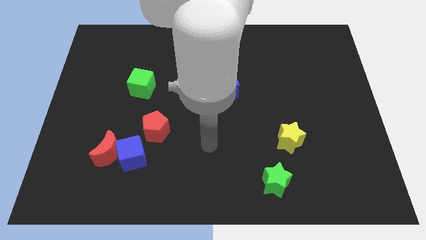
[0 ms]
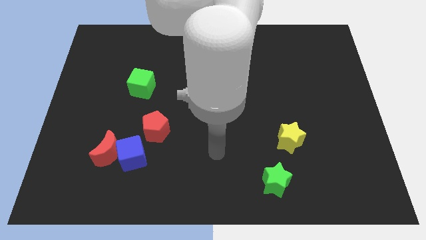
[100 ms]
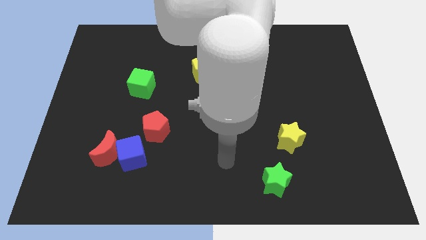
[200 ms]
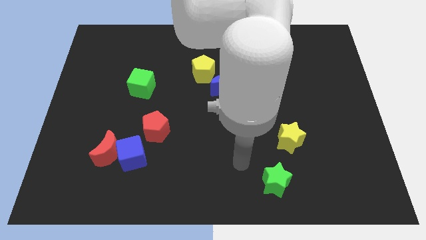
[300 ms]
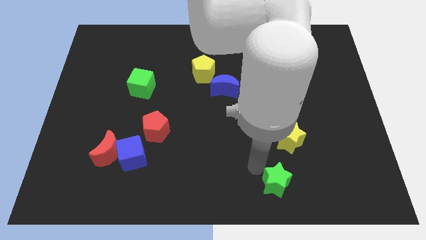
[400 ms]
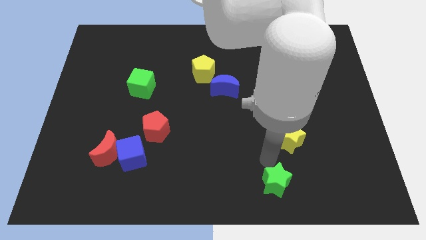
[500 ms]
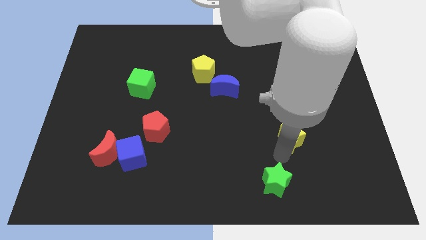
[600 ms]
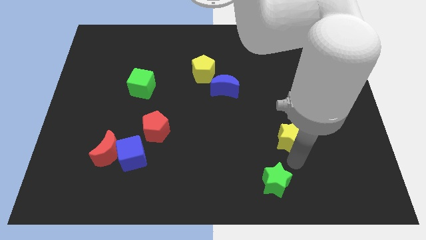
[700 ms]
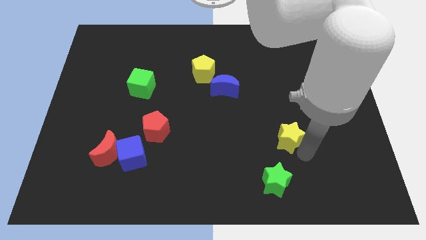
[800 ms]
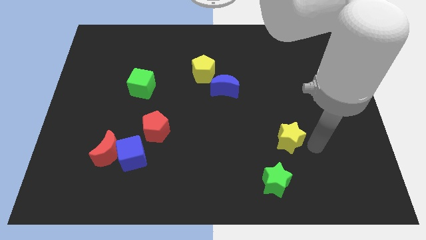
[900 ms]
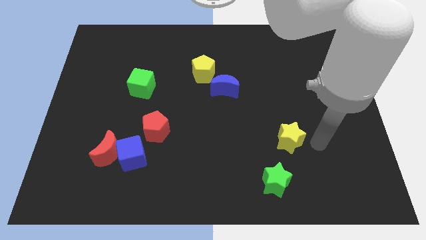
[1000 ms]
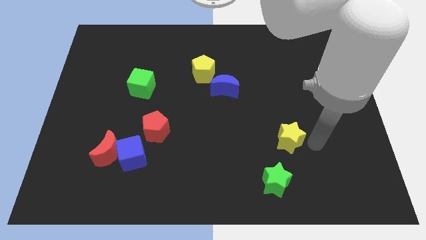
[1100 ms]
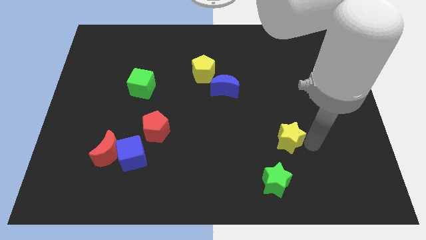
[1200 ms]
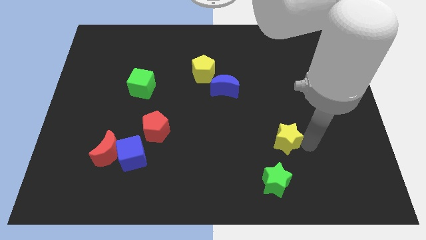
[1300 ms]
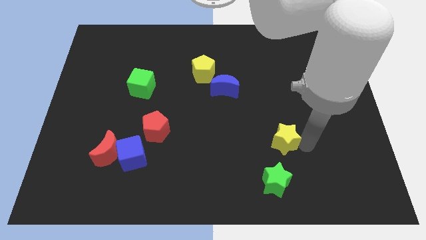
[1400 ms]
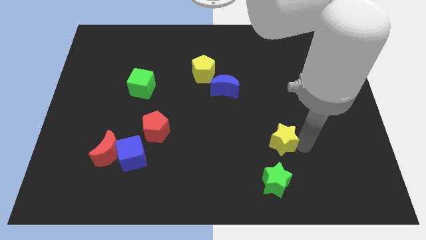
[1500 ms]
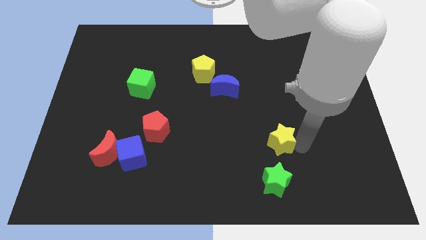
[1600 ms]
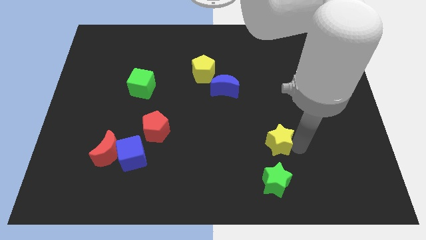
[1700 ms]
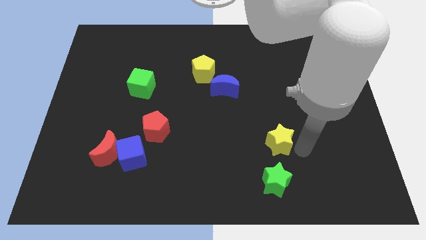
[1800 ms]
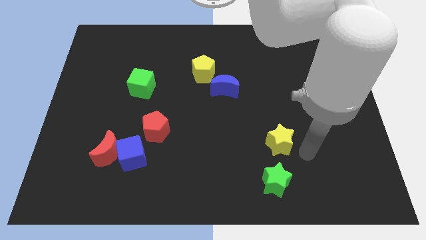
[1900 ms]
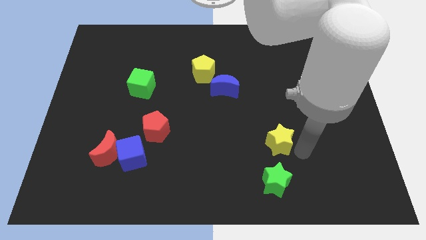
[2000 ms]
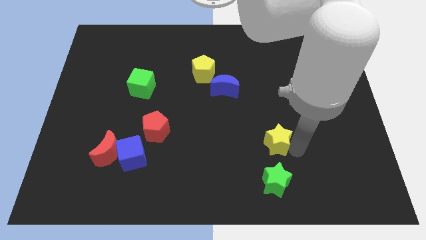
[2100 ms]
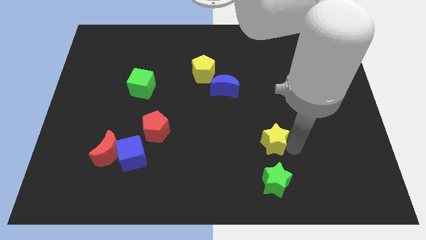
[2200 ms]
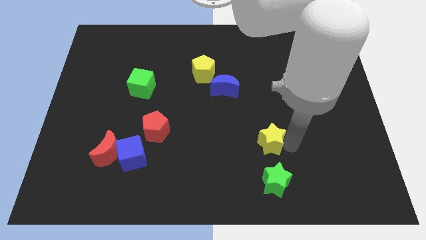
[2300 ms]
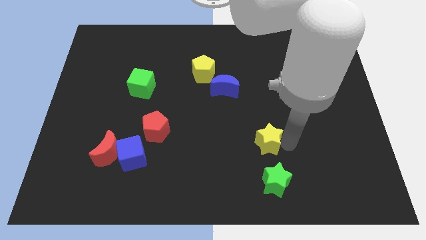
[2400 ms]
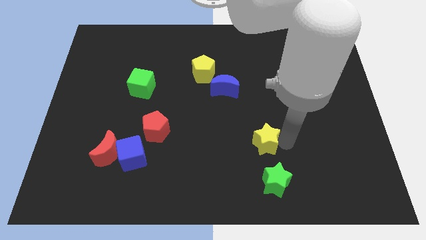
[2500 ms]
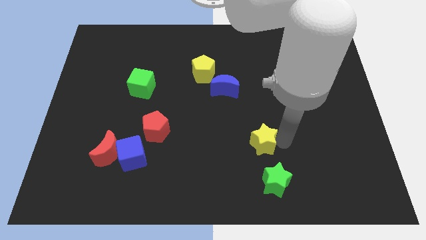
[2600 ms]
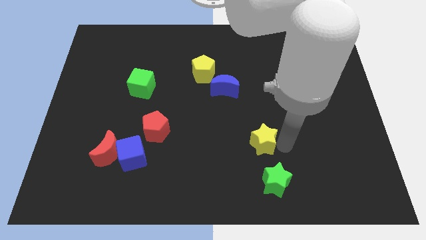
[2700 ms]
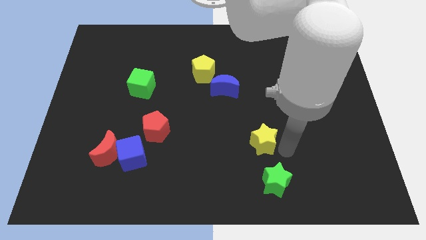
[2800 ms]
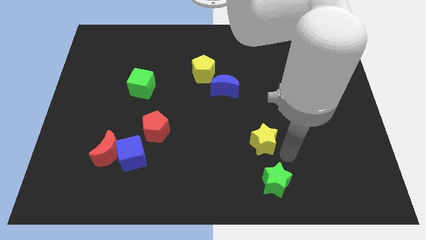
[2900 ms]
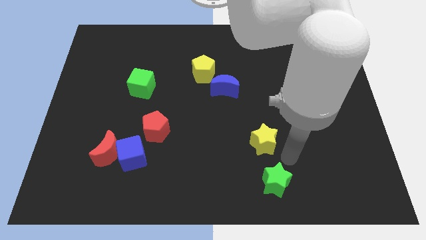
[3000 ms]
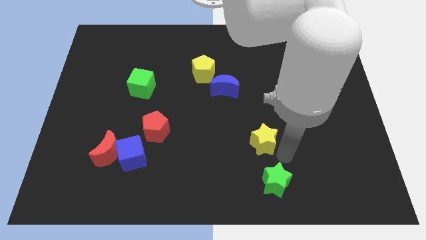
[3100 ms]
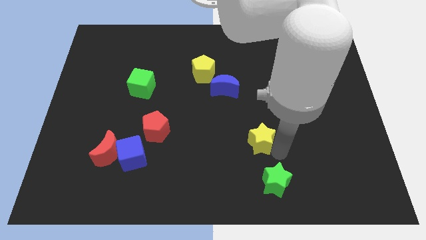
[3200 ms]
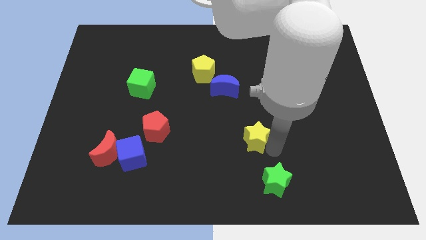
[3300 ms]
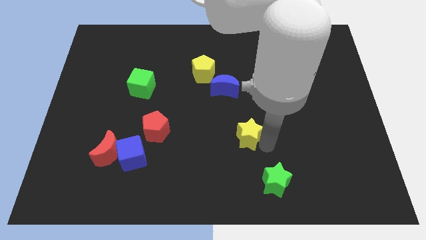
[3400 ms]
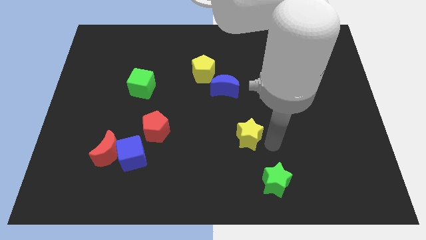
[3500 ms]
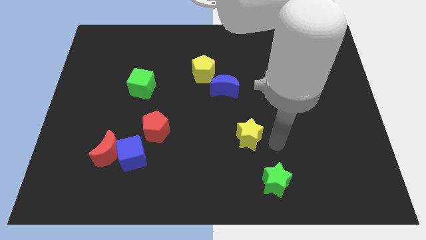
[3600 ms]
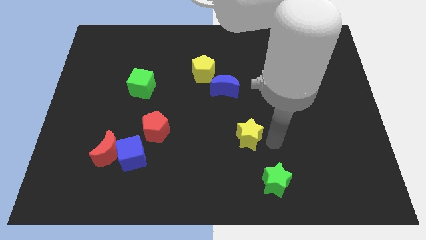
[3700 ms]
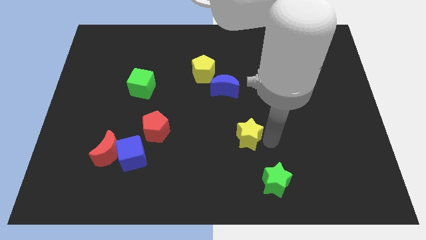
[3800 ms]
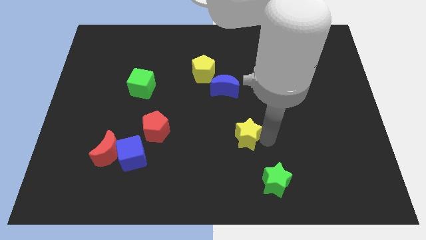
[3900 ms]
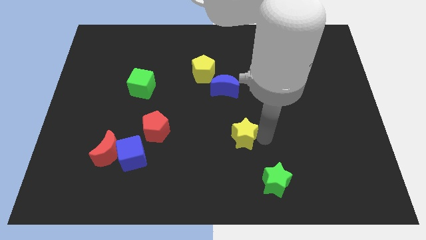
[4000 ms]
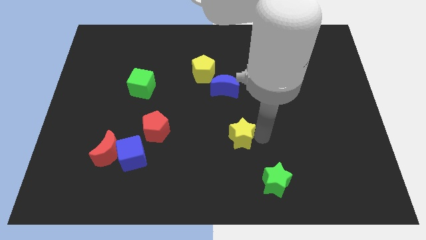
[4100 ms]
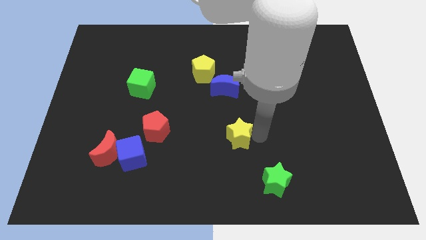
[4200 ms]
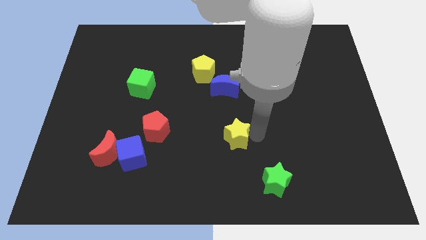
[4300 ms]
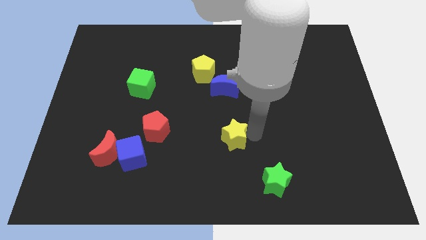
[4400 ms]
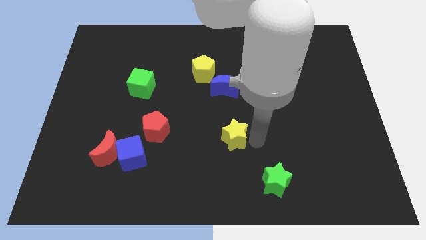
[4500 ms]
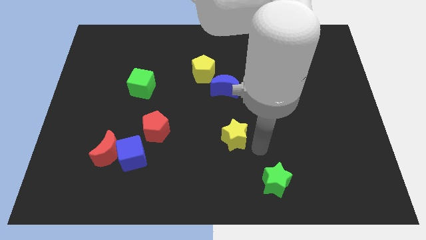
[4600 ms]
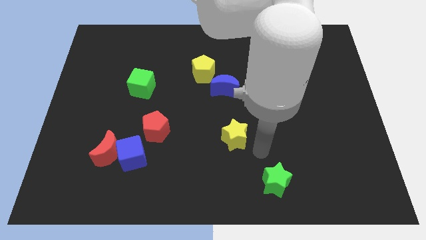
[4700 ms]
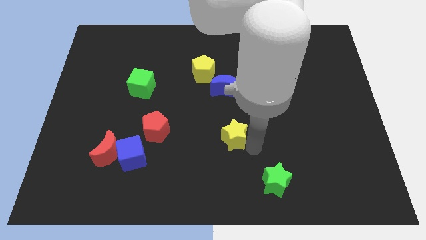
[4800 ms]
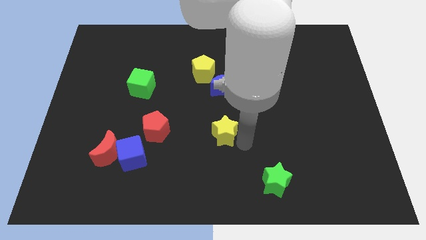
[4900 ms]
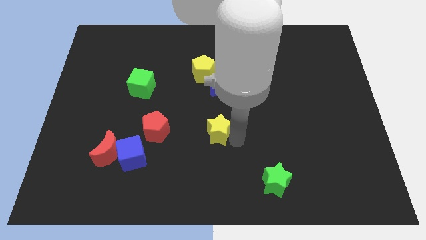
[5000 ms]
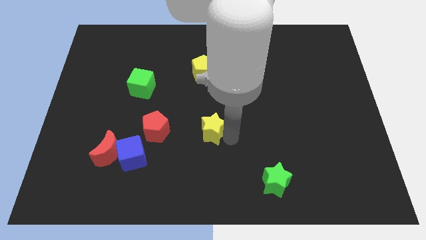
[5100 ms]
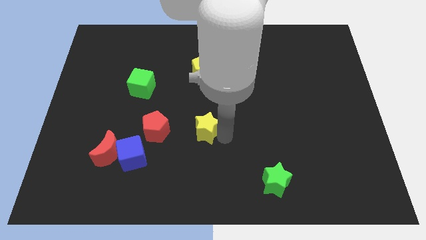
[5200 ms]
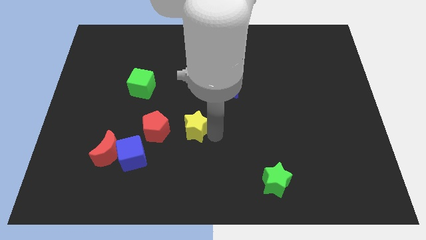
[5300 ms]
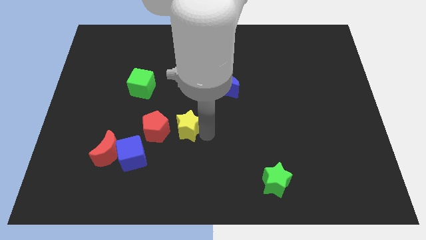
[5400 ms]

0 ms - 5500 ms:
push the yellow star to the top right side of the red pentagon

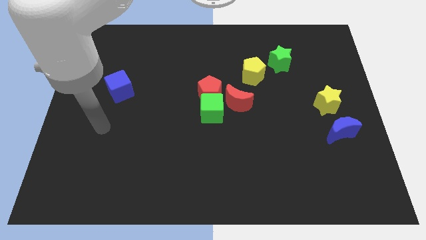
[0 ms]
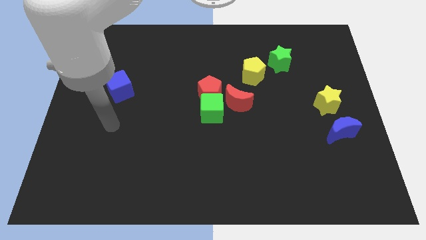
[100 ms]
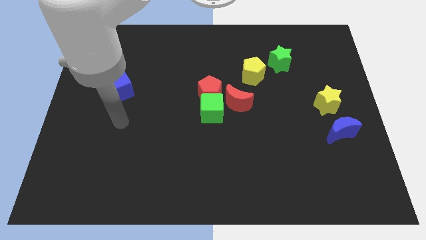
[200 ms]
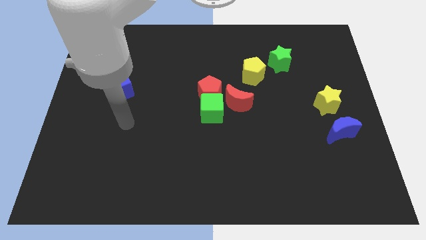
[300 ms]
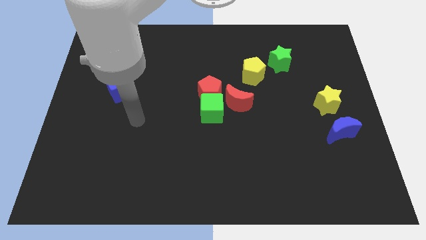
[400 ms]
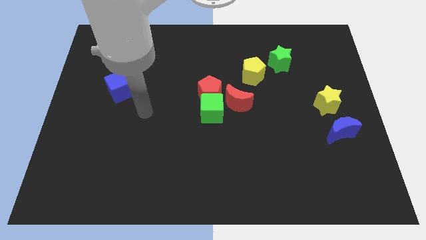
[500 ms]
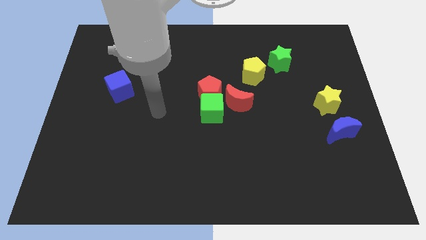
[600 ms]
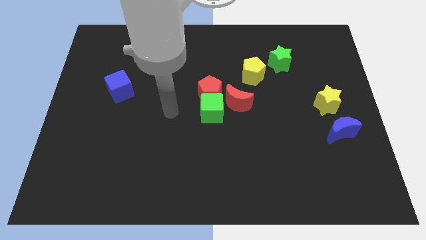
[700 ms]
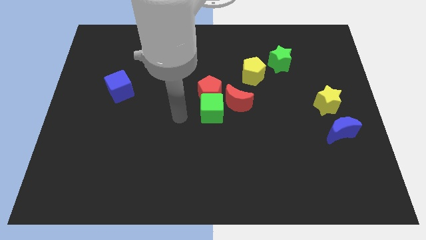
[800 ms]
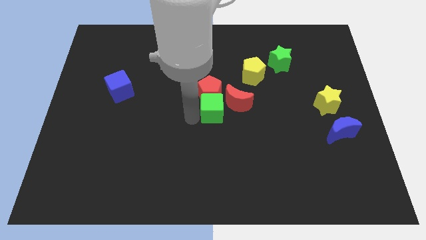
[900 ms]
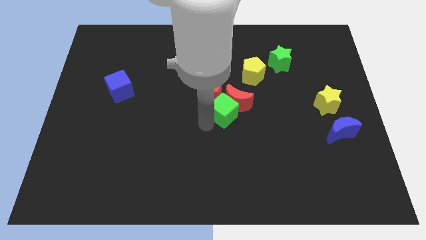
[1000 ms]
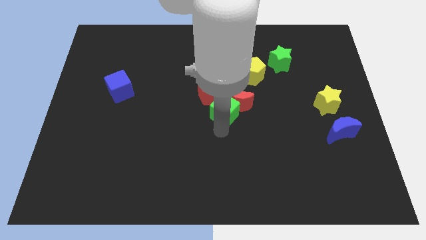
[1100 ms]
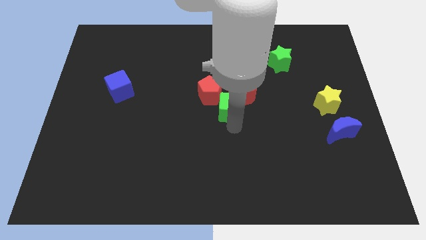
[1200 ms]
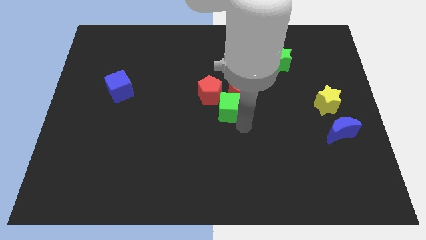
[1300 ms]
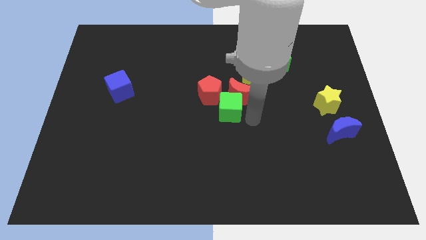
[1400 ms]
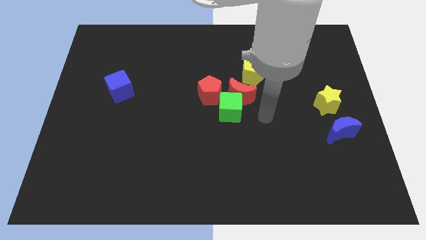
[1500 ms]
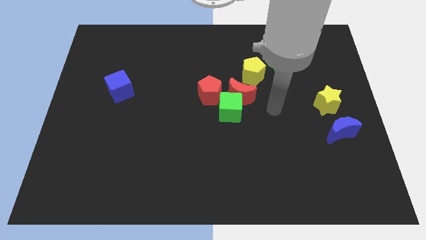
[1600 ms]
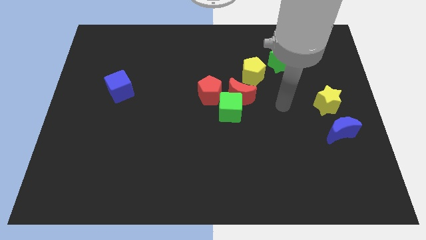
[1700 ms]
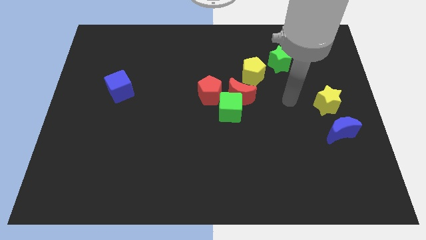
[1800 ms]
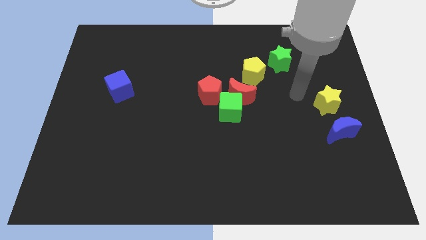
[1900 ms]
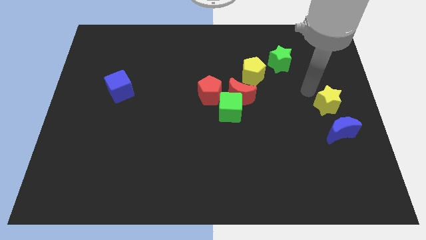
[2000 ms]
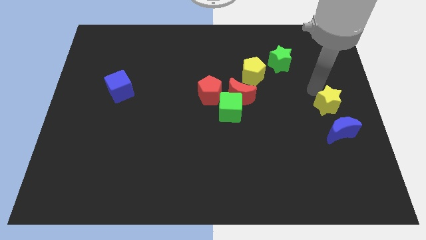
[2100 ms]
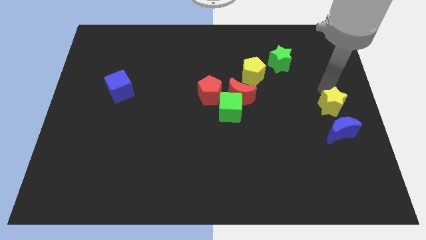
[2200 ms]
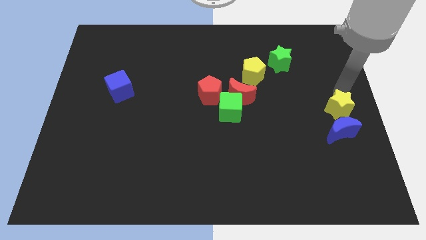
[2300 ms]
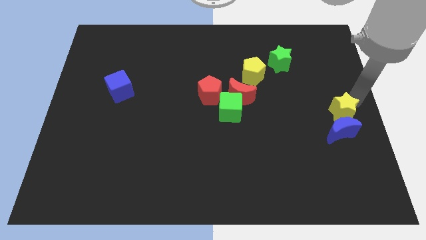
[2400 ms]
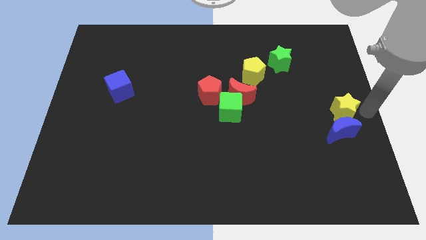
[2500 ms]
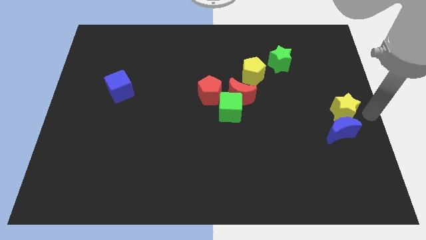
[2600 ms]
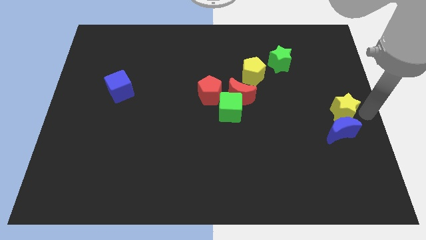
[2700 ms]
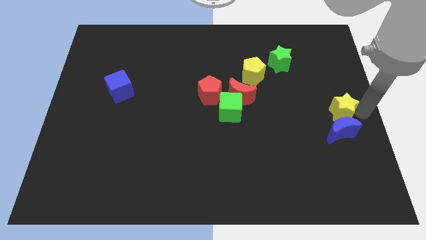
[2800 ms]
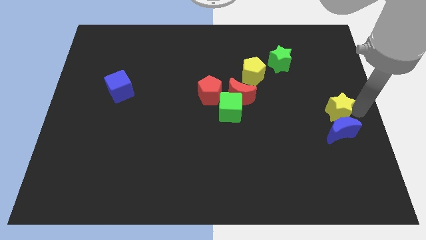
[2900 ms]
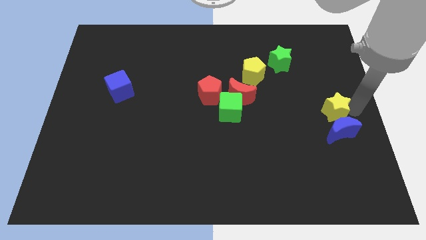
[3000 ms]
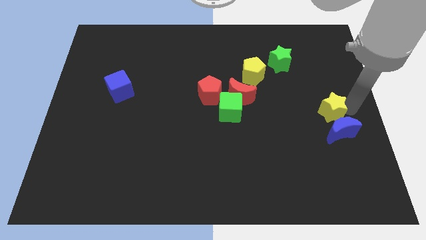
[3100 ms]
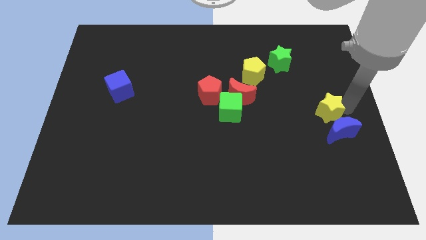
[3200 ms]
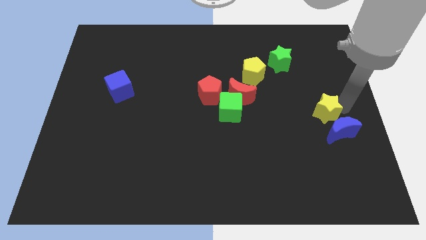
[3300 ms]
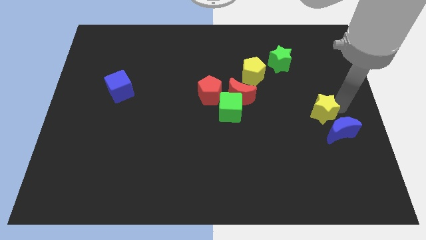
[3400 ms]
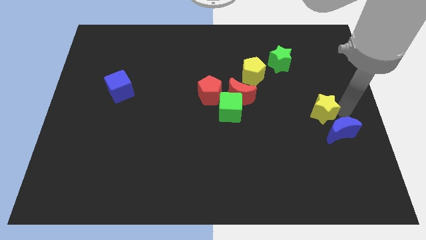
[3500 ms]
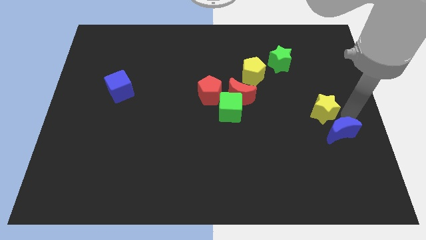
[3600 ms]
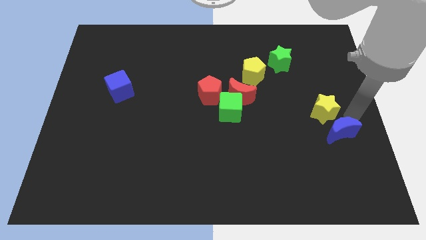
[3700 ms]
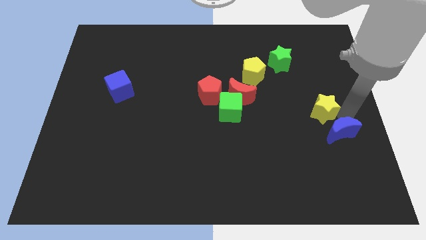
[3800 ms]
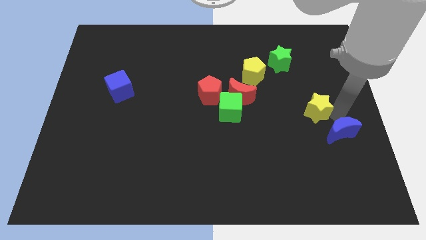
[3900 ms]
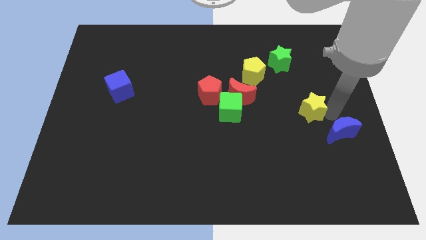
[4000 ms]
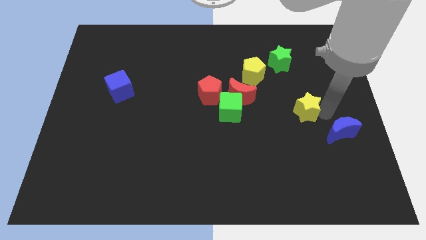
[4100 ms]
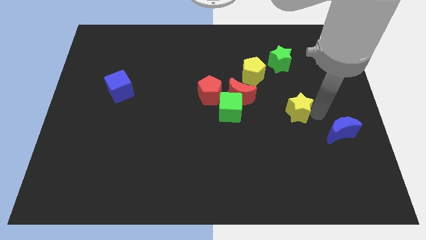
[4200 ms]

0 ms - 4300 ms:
slide the yellow star just right of the red moon
